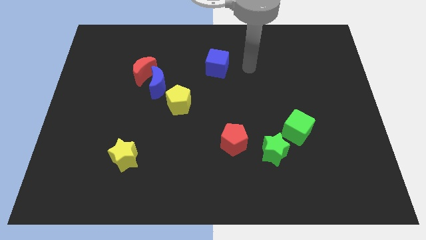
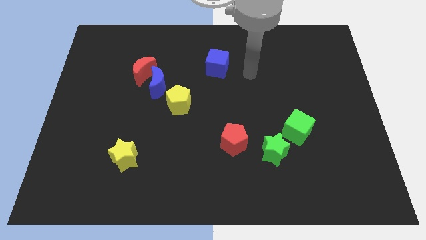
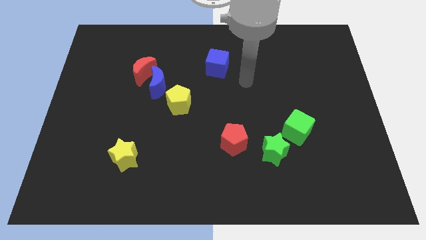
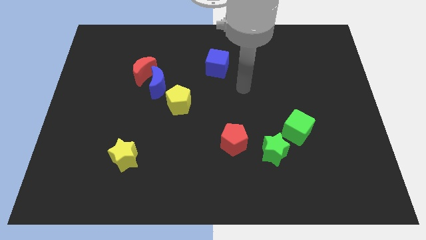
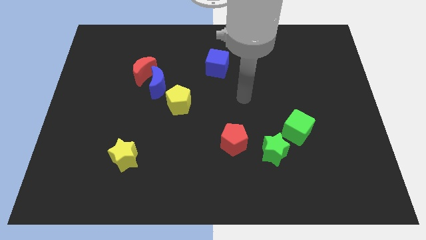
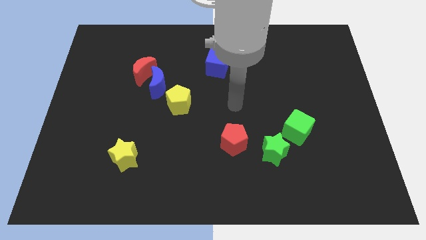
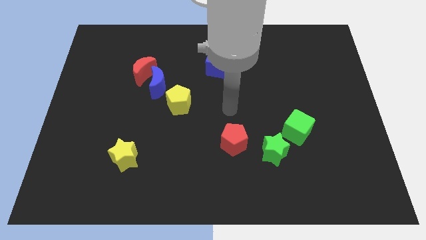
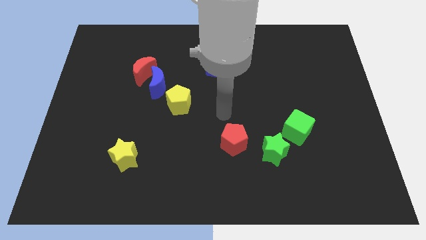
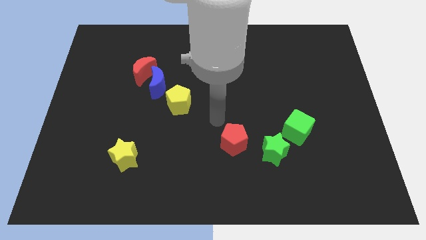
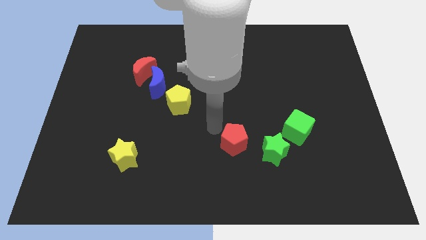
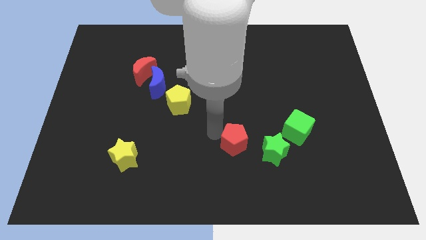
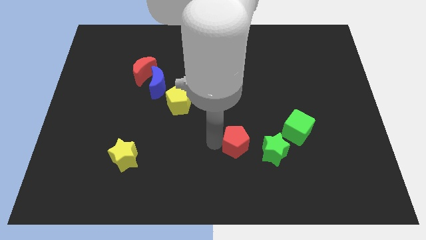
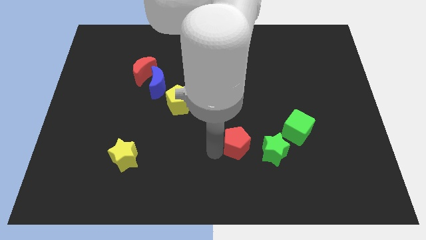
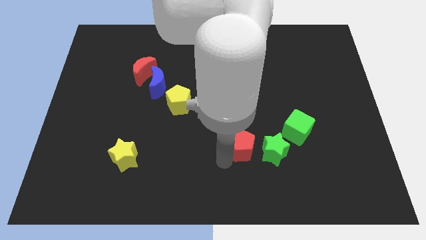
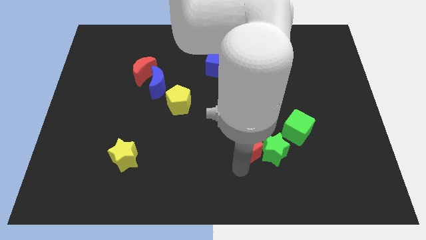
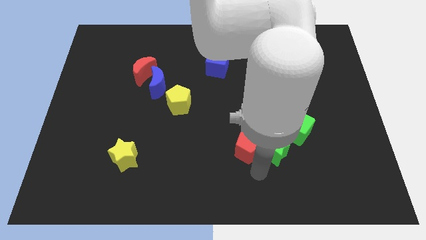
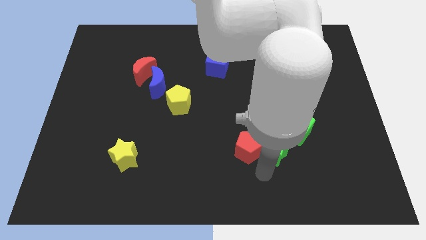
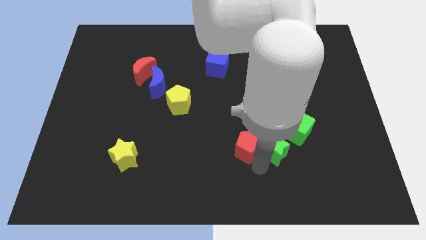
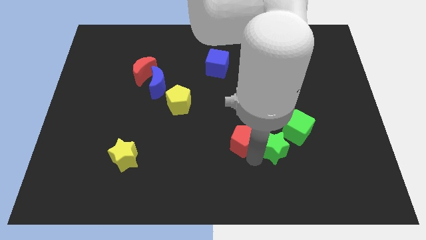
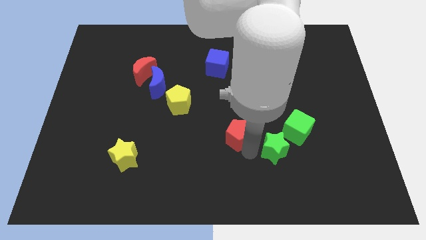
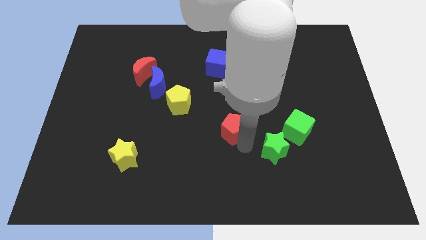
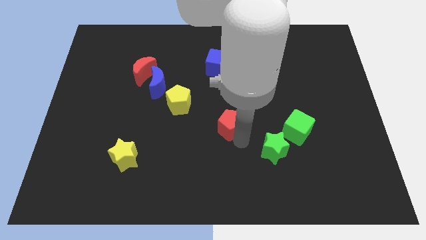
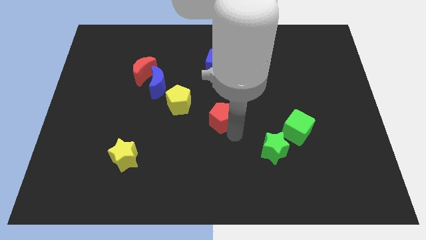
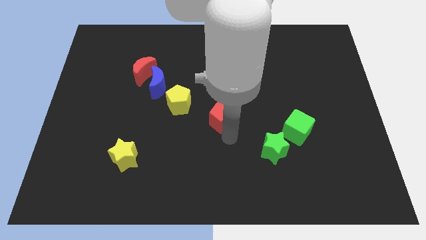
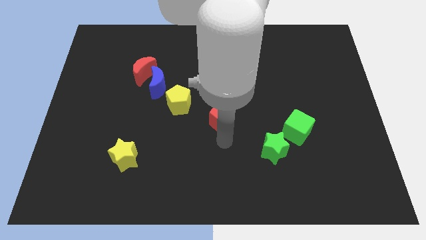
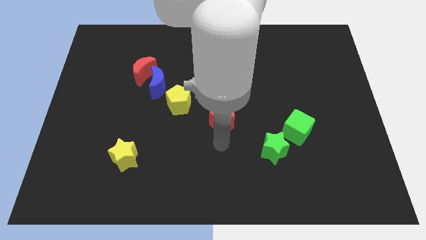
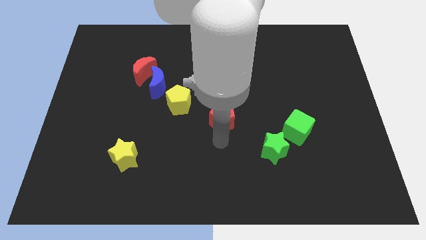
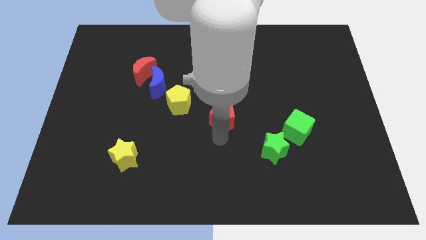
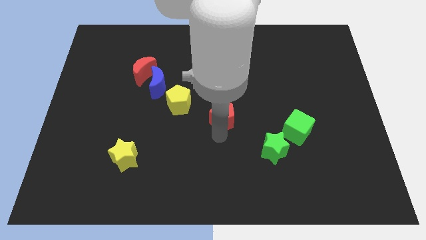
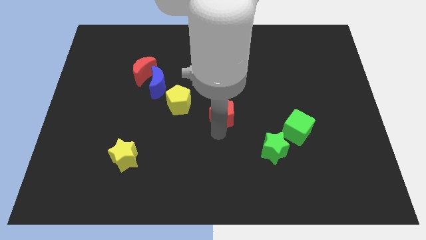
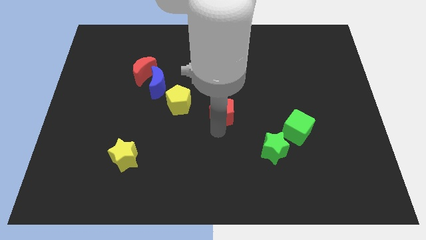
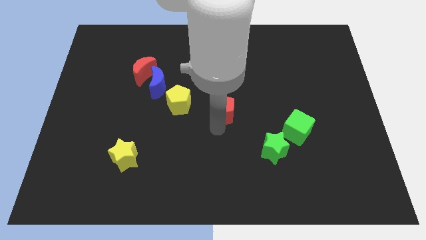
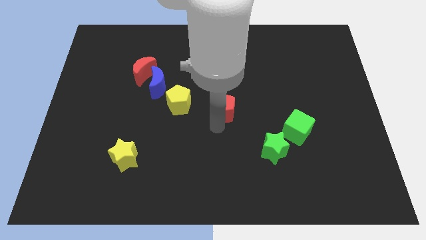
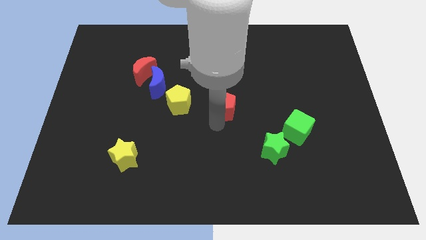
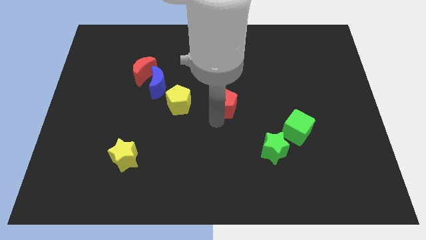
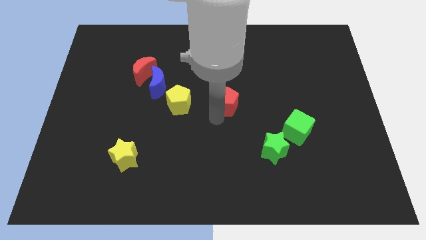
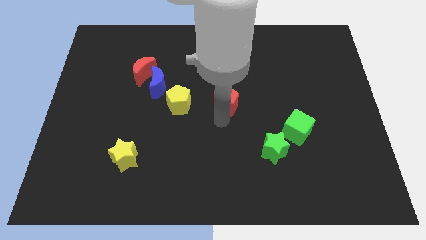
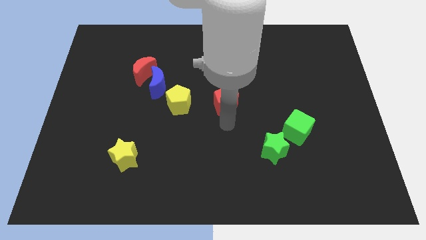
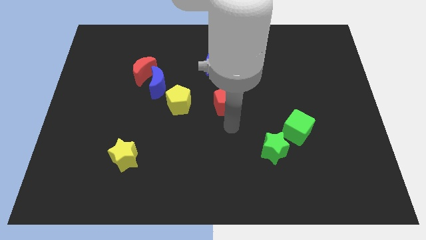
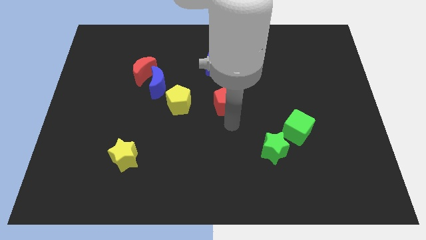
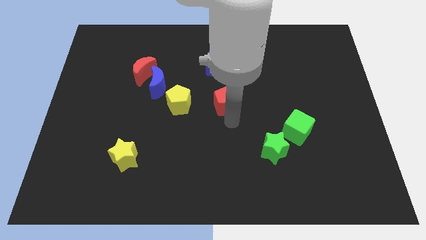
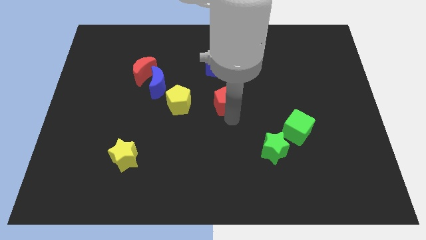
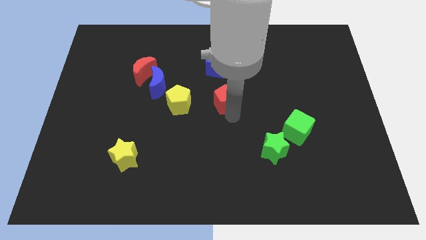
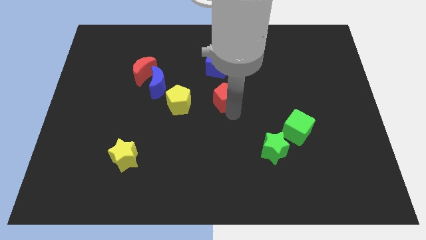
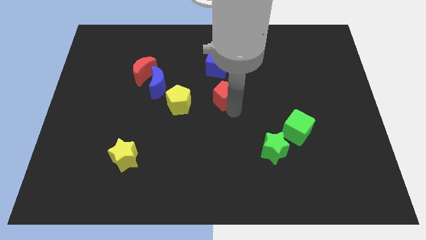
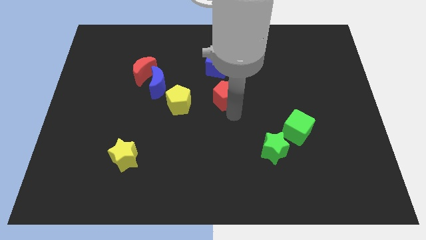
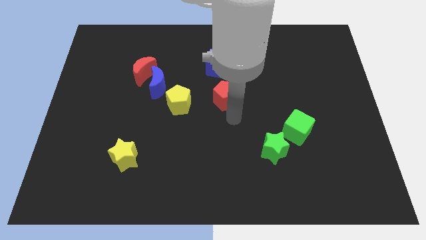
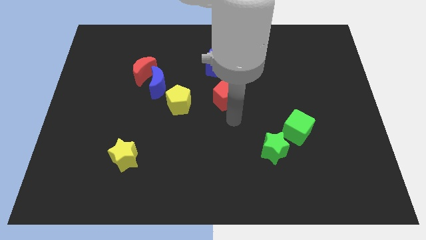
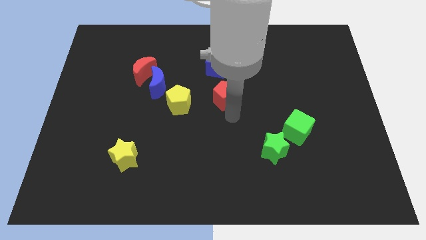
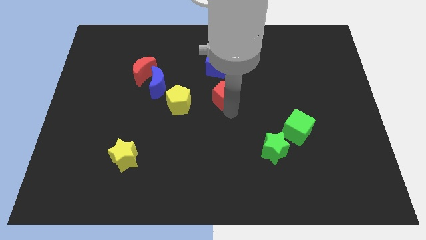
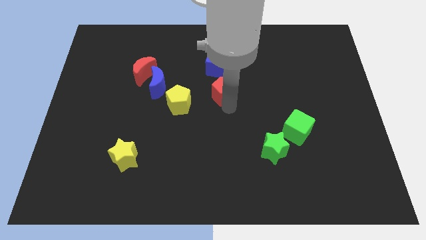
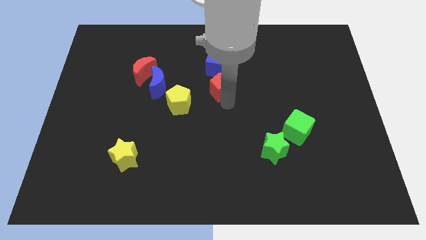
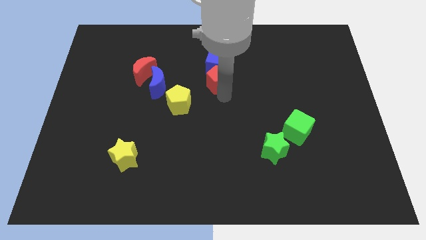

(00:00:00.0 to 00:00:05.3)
put the red pentagon close to the blue cube

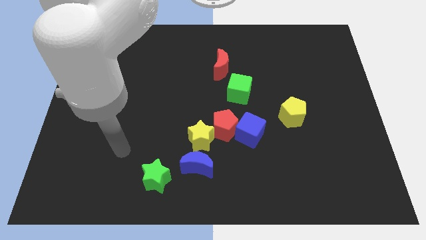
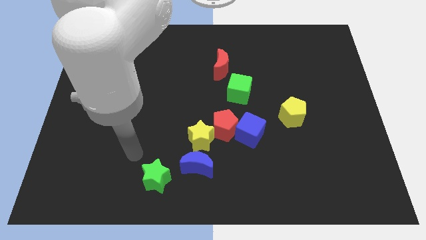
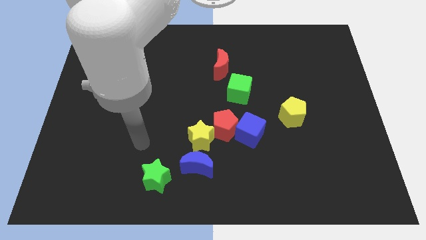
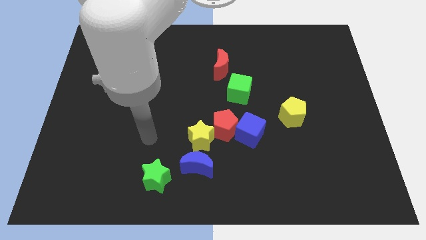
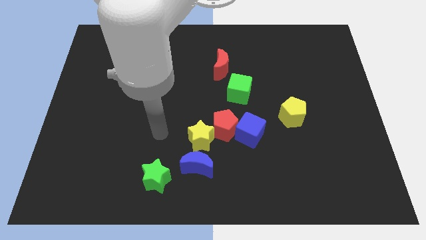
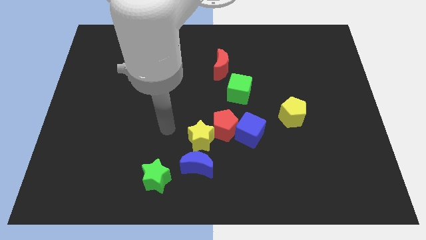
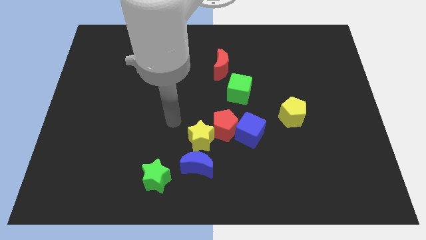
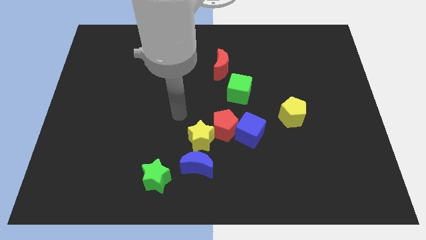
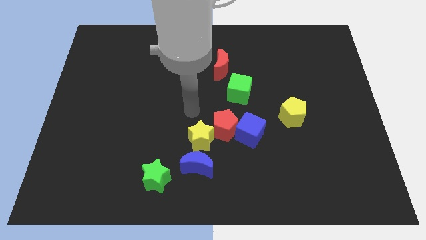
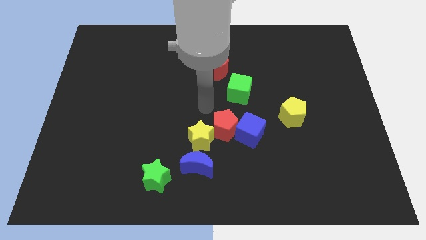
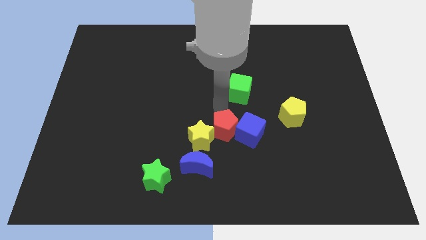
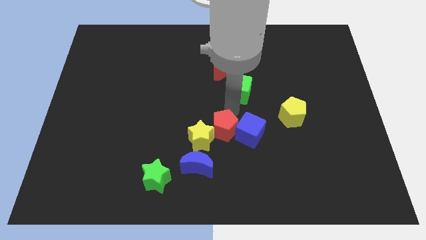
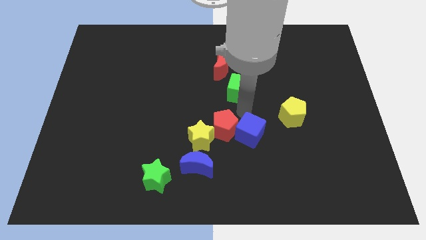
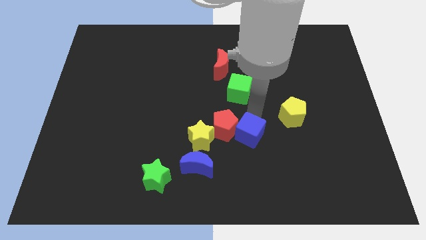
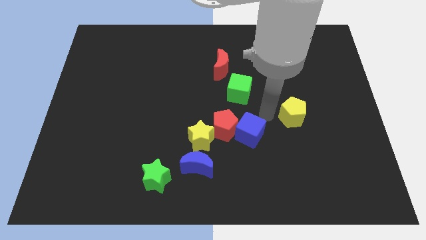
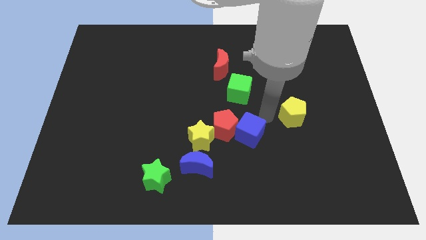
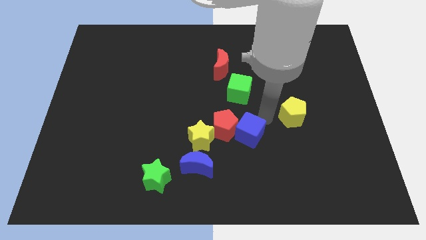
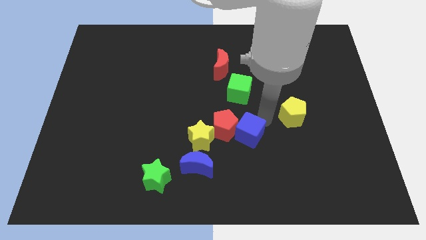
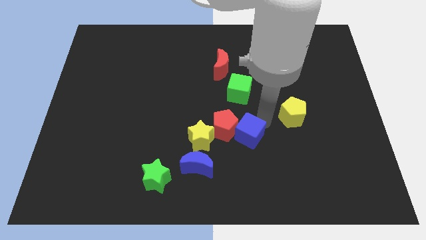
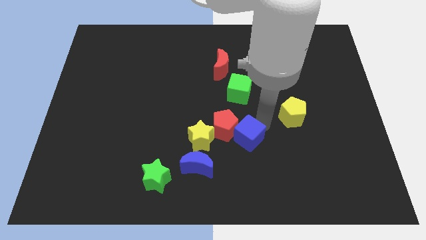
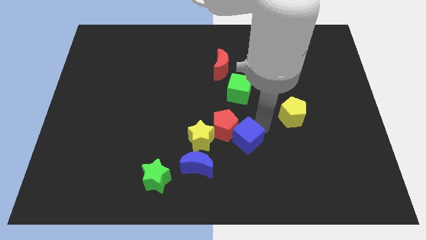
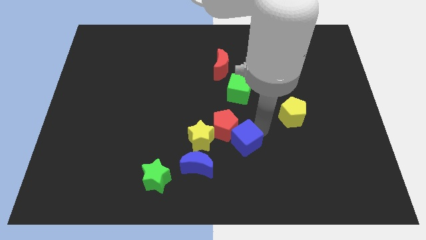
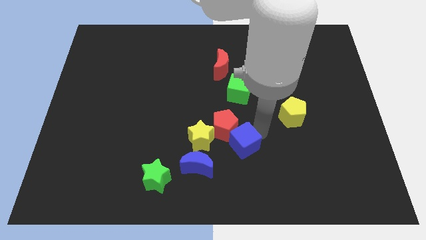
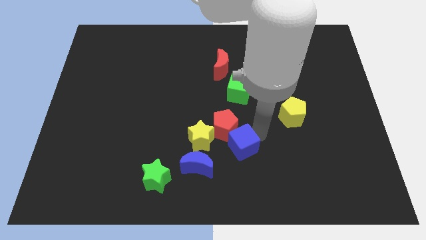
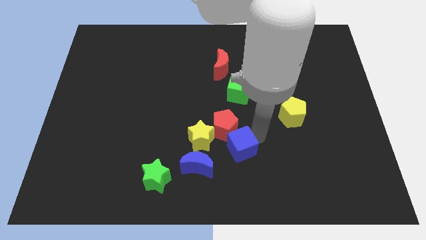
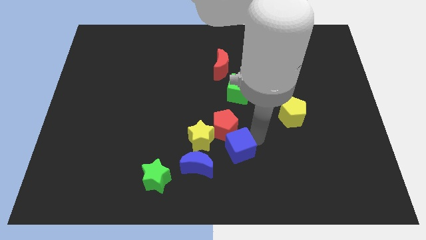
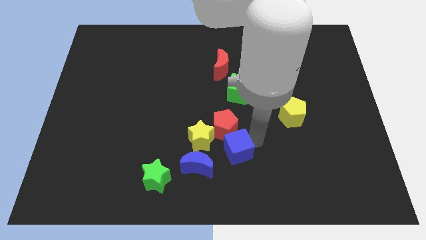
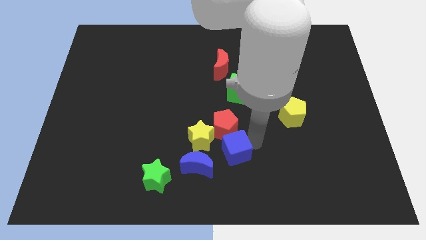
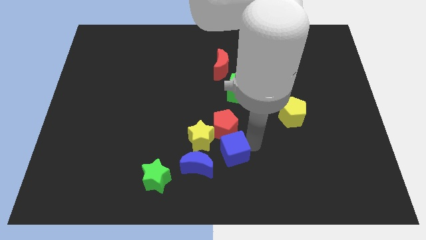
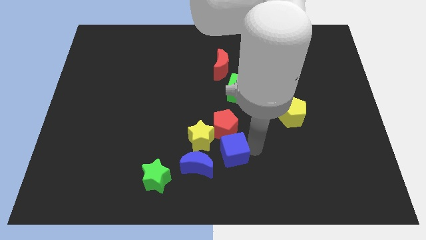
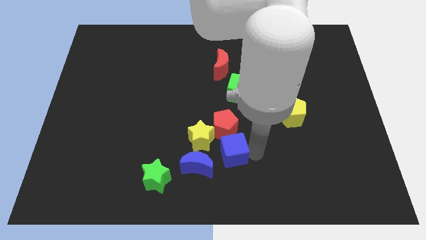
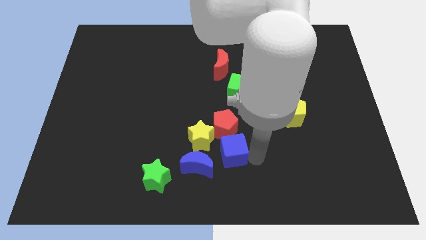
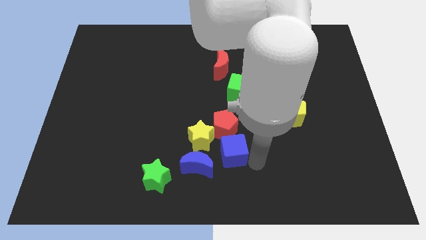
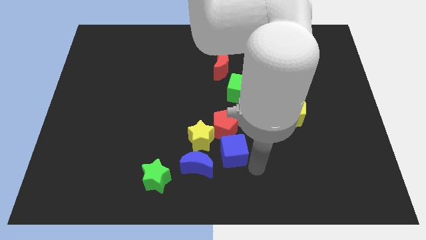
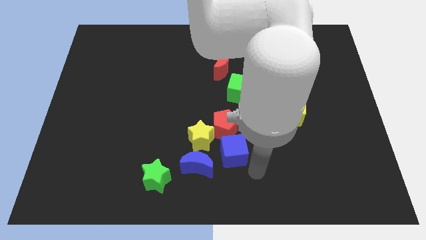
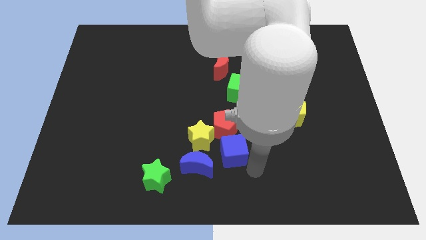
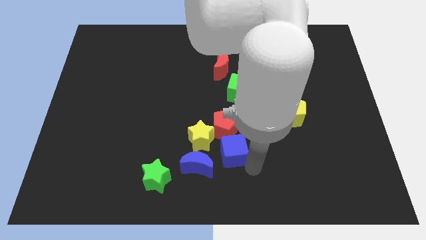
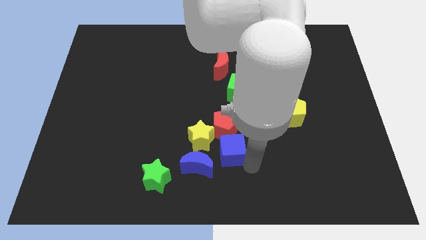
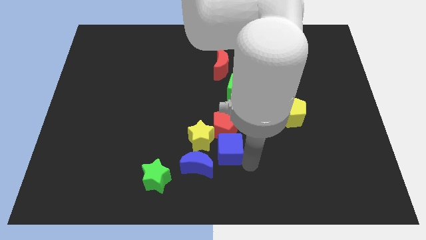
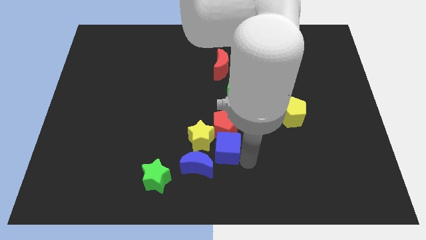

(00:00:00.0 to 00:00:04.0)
put the blue cube to the yellow star
